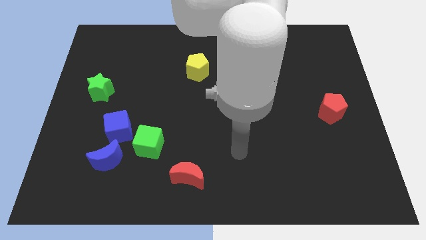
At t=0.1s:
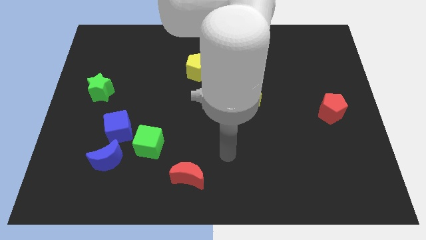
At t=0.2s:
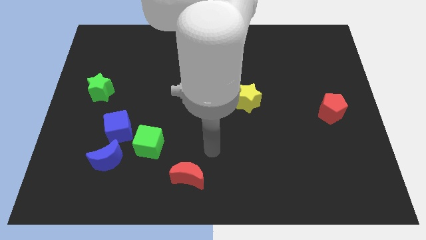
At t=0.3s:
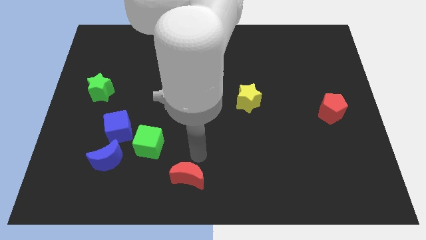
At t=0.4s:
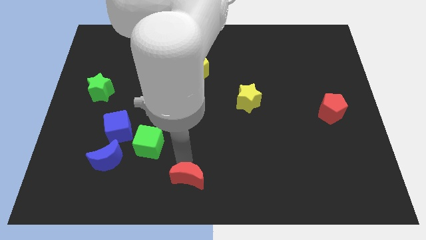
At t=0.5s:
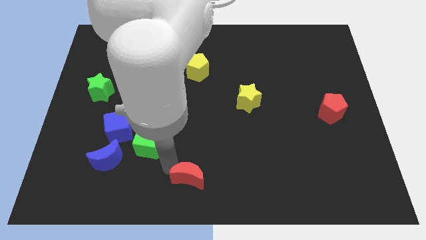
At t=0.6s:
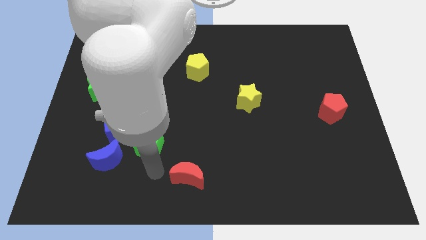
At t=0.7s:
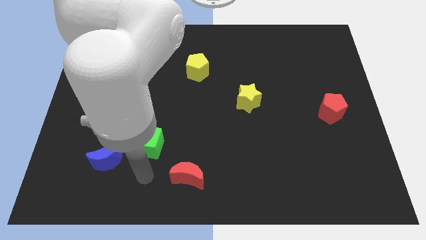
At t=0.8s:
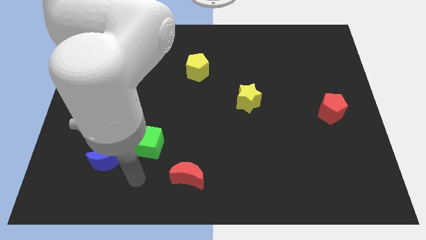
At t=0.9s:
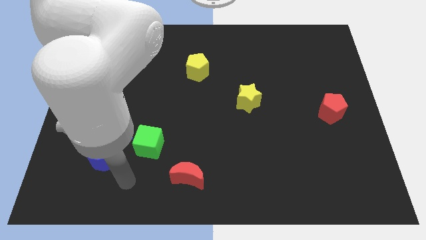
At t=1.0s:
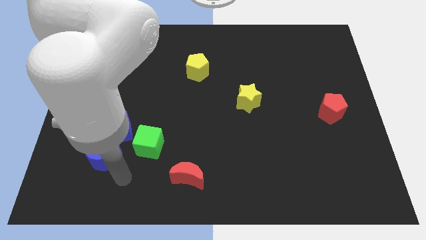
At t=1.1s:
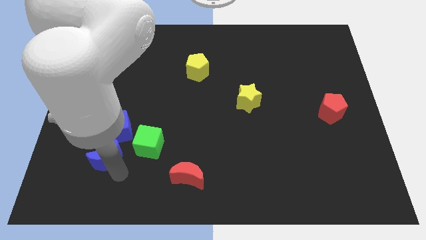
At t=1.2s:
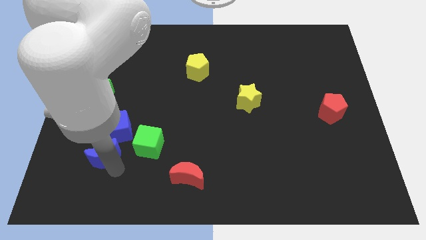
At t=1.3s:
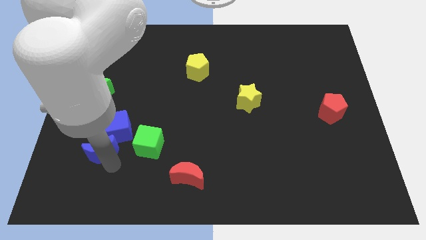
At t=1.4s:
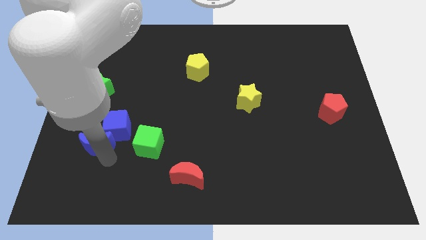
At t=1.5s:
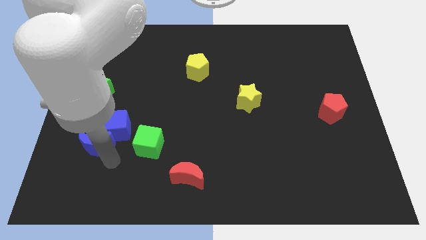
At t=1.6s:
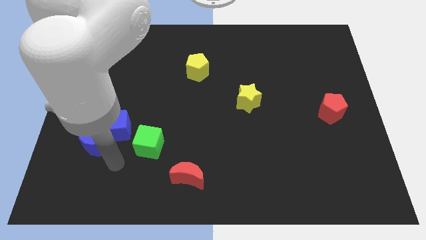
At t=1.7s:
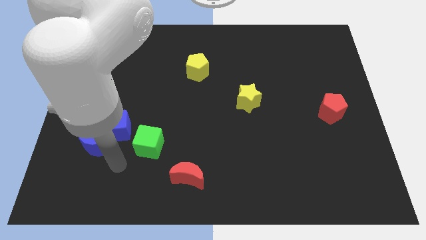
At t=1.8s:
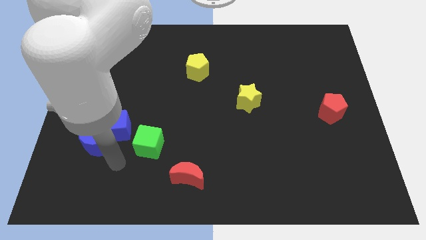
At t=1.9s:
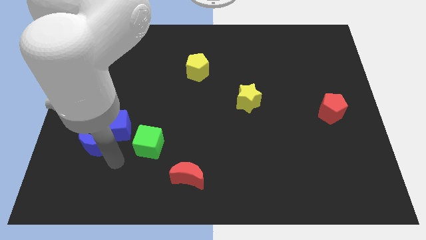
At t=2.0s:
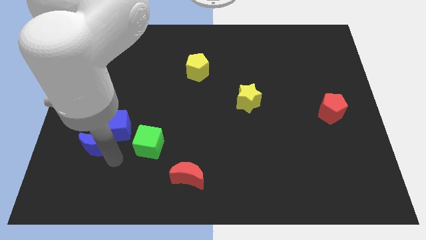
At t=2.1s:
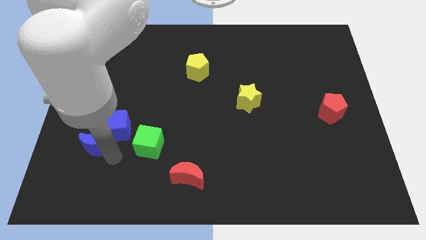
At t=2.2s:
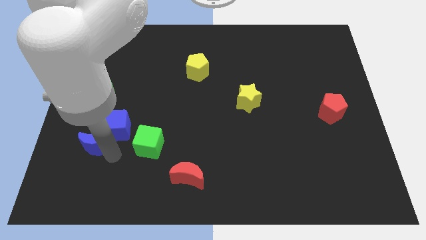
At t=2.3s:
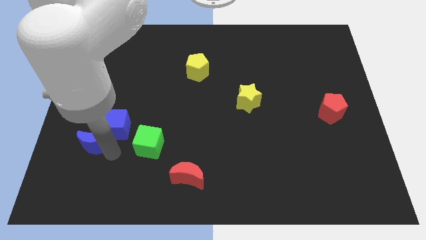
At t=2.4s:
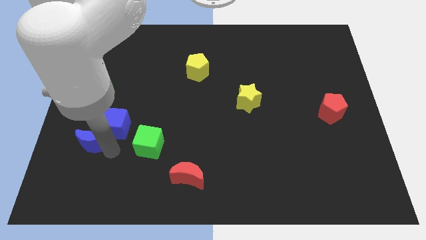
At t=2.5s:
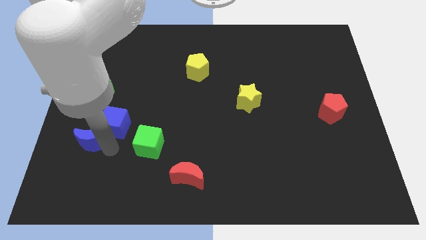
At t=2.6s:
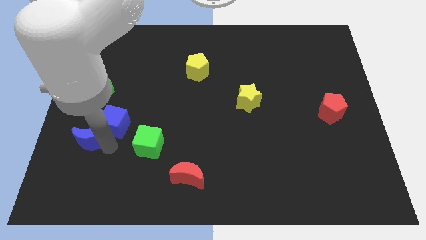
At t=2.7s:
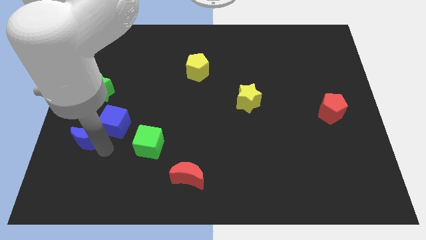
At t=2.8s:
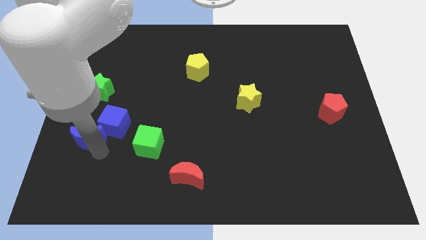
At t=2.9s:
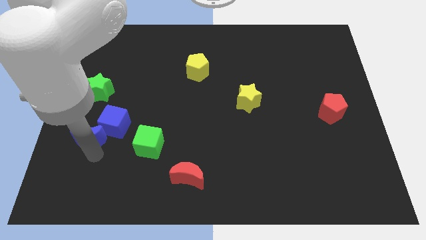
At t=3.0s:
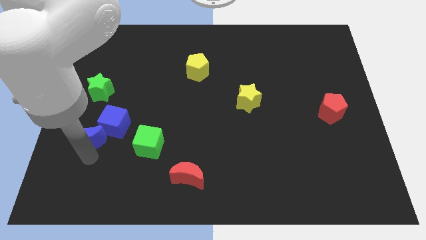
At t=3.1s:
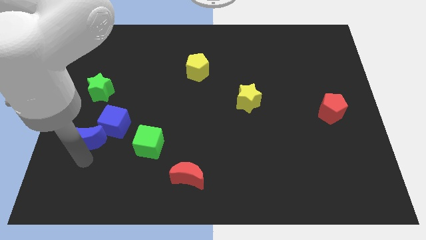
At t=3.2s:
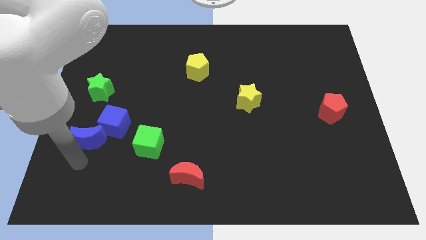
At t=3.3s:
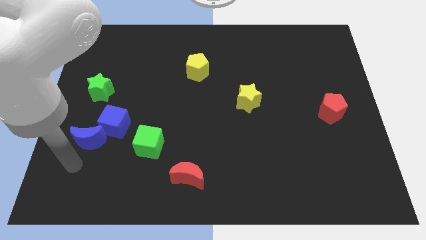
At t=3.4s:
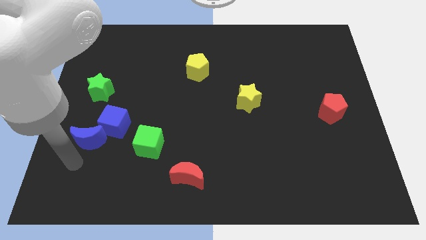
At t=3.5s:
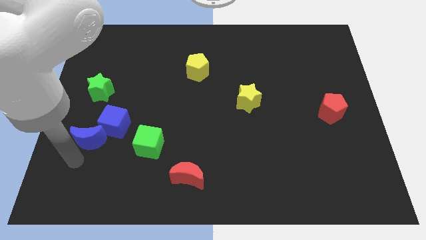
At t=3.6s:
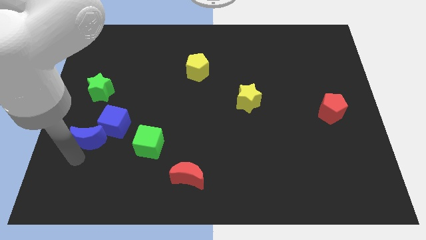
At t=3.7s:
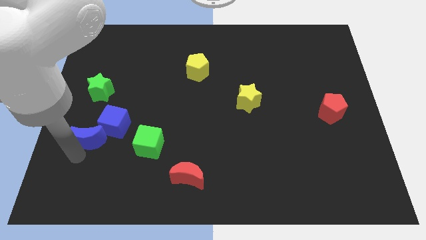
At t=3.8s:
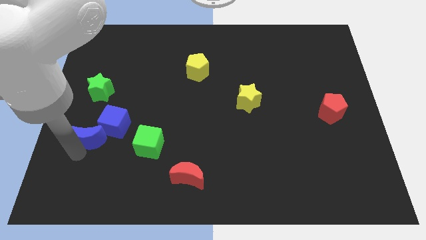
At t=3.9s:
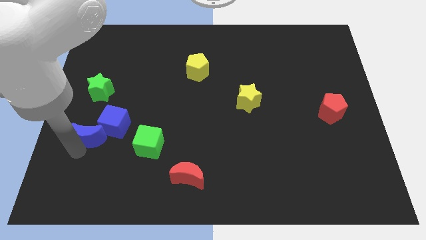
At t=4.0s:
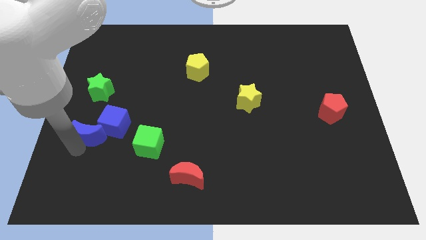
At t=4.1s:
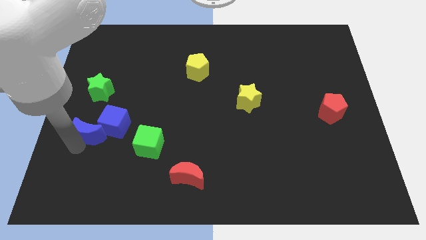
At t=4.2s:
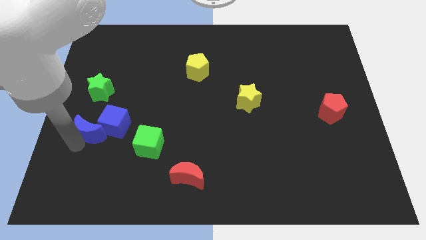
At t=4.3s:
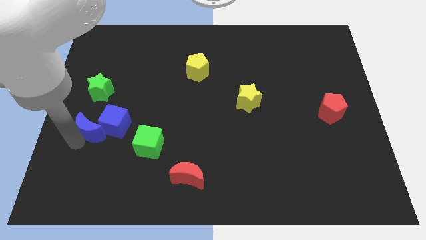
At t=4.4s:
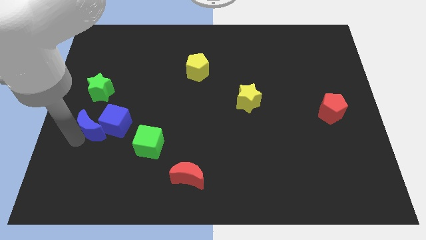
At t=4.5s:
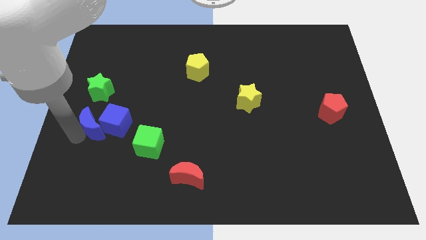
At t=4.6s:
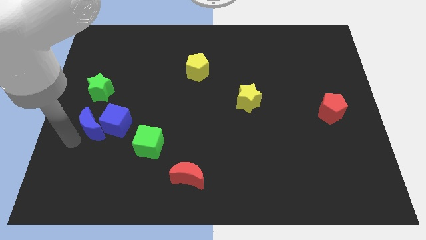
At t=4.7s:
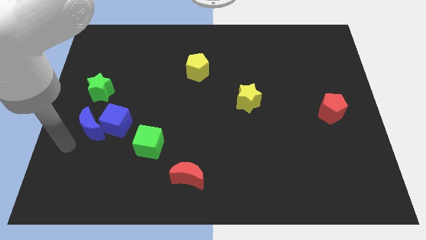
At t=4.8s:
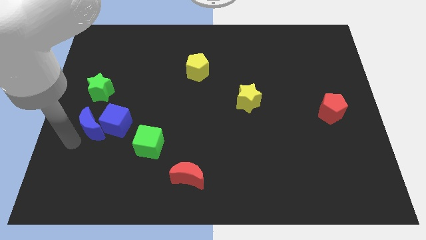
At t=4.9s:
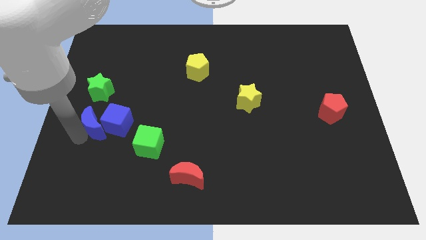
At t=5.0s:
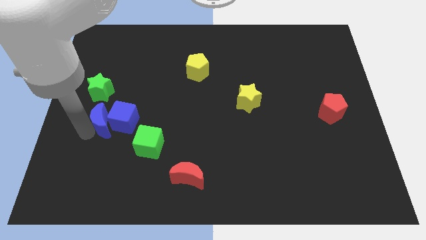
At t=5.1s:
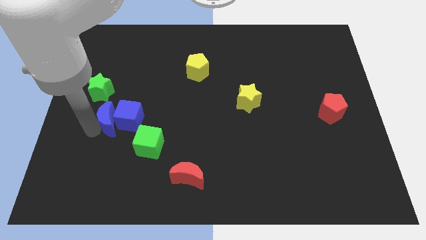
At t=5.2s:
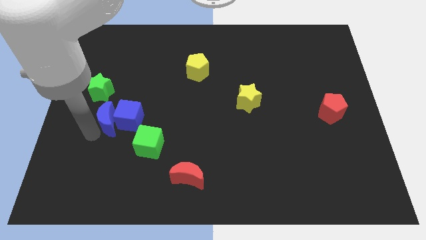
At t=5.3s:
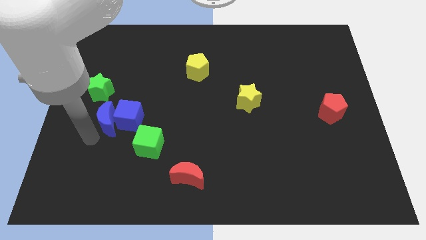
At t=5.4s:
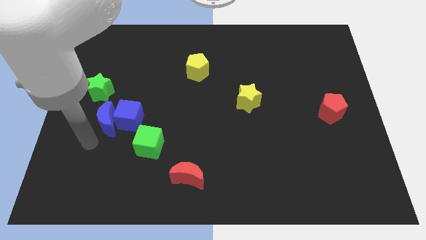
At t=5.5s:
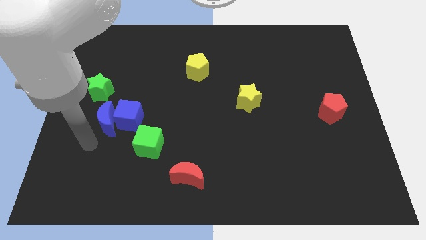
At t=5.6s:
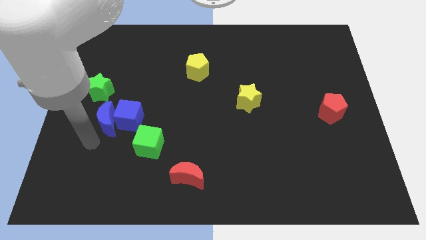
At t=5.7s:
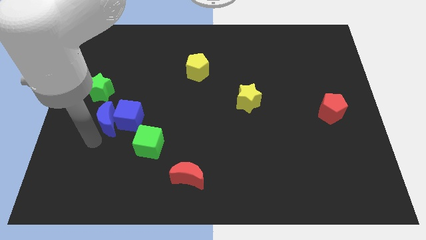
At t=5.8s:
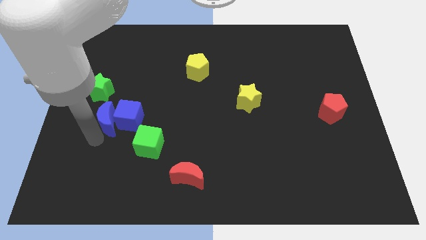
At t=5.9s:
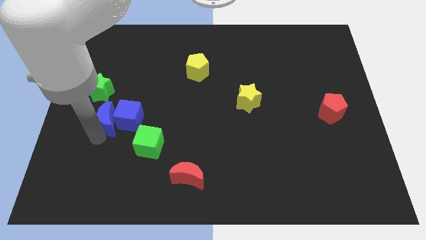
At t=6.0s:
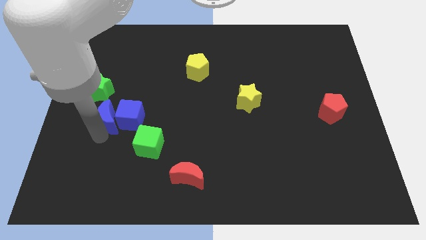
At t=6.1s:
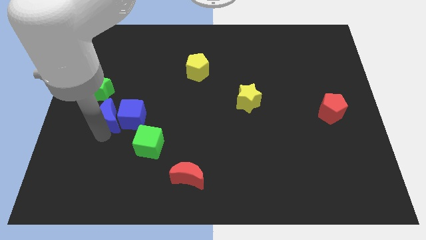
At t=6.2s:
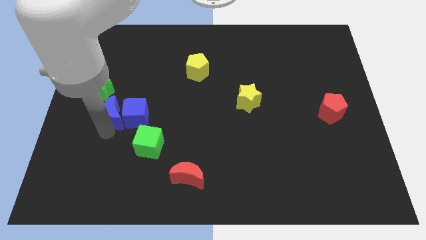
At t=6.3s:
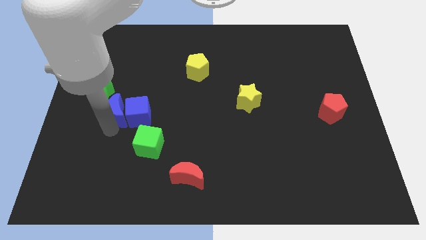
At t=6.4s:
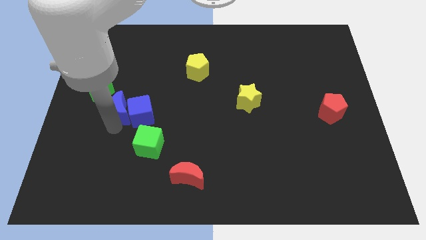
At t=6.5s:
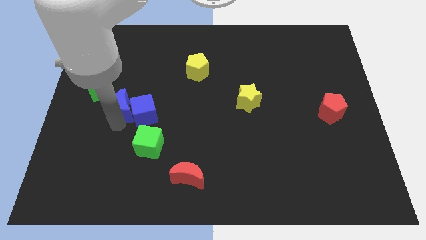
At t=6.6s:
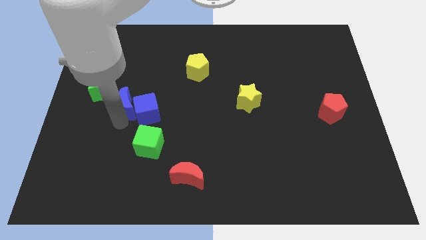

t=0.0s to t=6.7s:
move the blue moon to the right side of the green star

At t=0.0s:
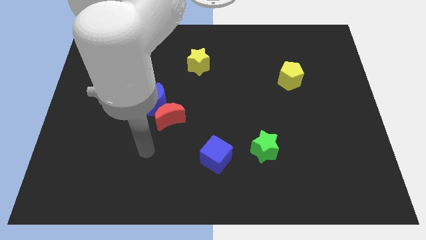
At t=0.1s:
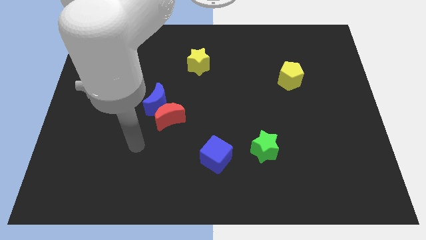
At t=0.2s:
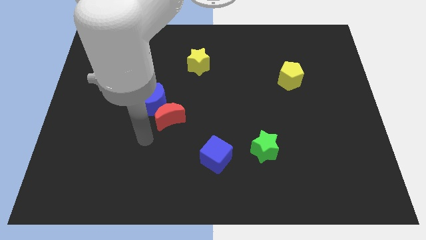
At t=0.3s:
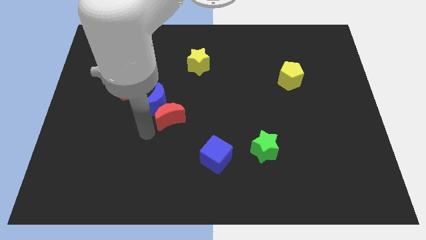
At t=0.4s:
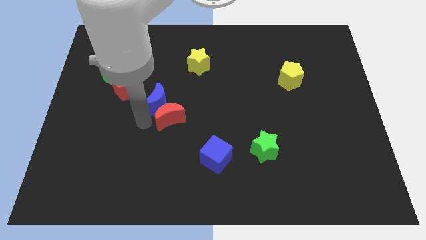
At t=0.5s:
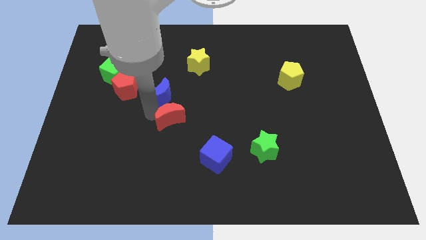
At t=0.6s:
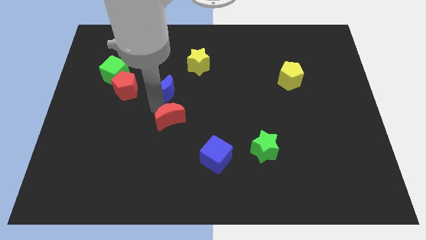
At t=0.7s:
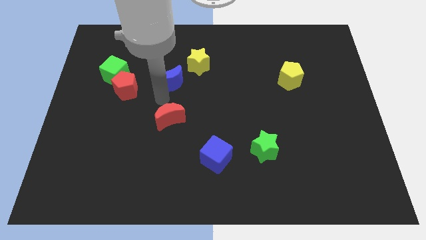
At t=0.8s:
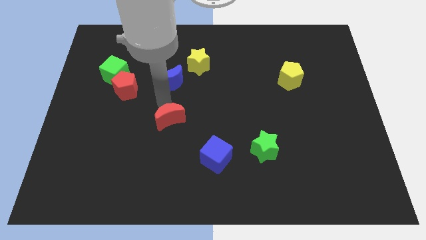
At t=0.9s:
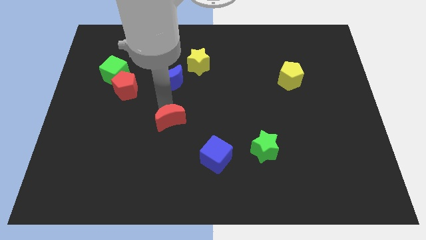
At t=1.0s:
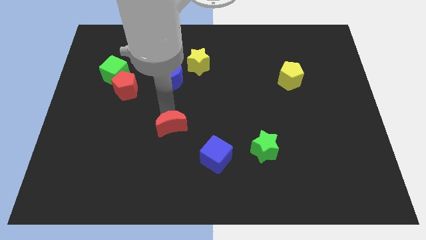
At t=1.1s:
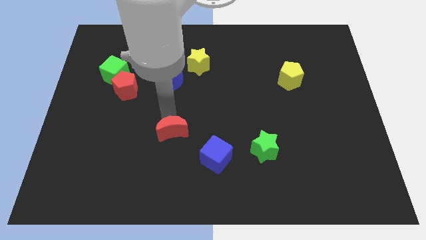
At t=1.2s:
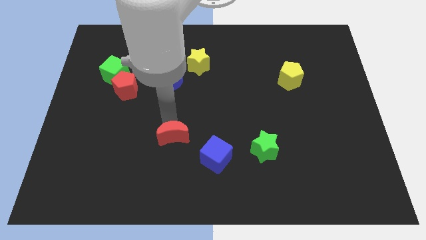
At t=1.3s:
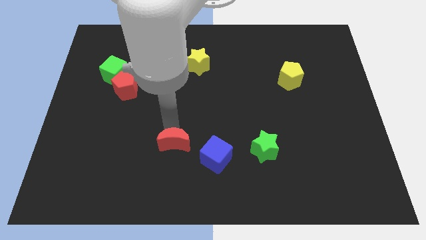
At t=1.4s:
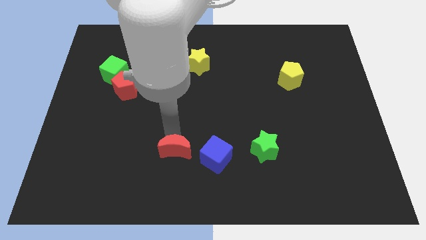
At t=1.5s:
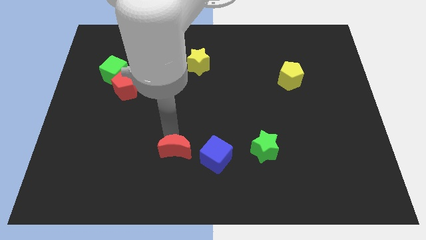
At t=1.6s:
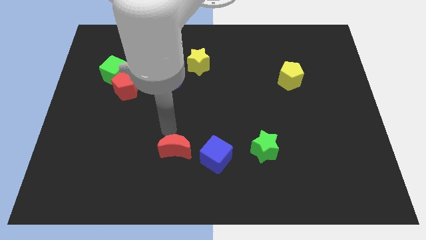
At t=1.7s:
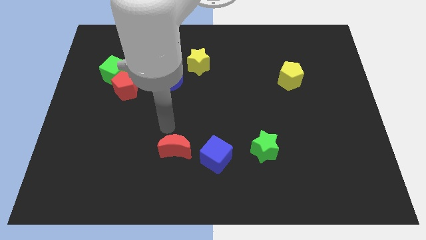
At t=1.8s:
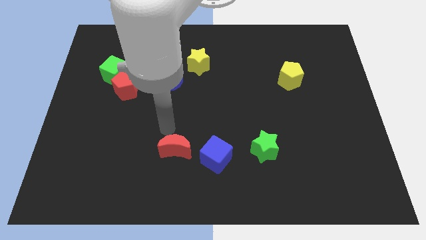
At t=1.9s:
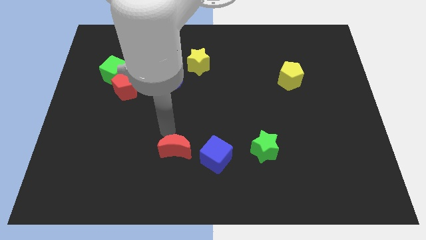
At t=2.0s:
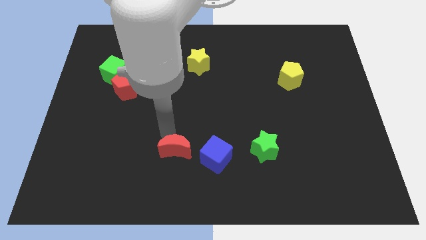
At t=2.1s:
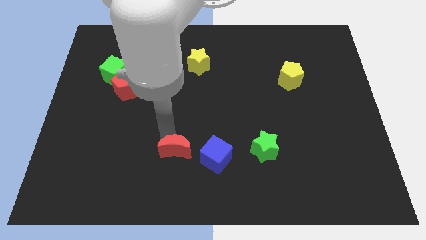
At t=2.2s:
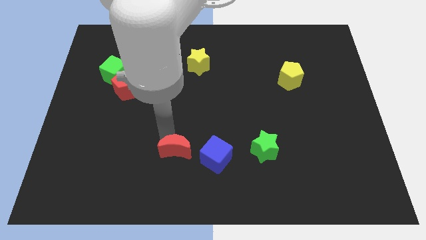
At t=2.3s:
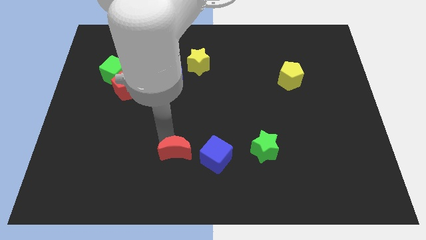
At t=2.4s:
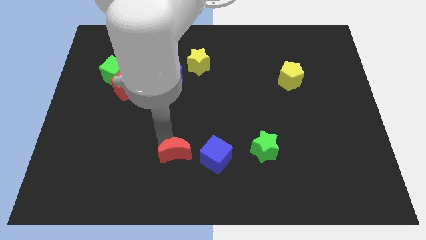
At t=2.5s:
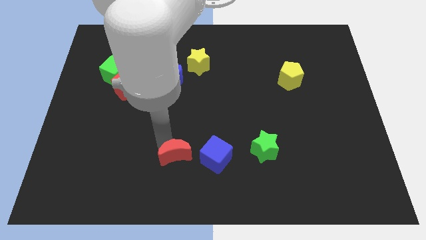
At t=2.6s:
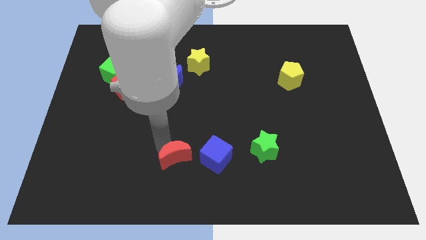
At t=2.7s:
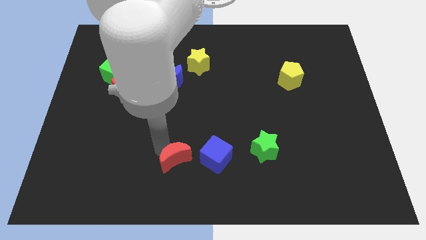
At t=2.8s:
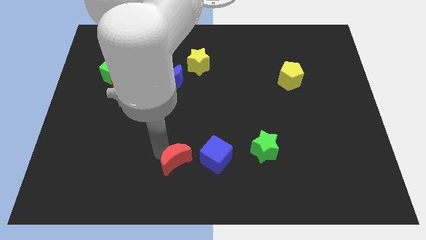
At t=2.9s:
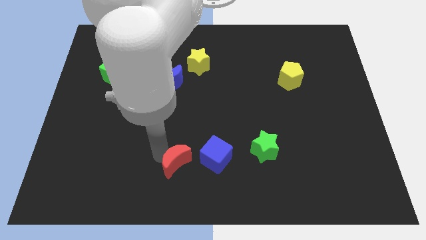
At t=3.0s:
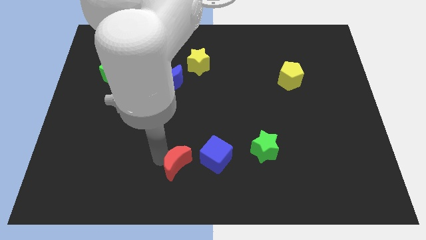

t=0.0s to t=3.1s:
push the red moon to the bottom left of the blue cube
